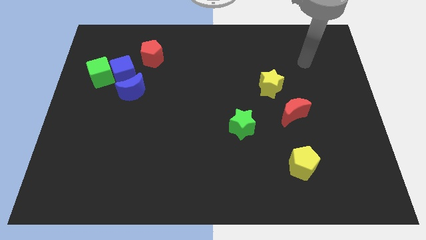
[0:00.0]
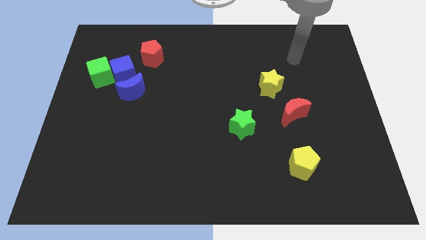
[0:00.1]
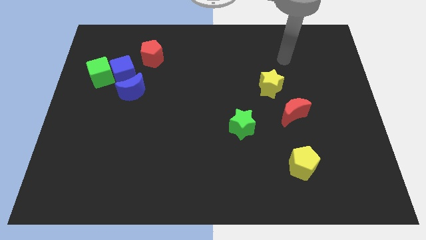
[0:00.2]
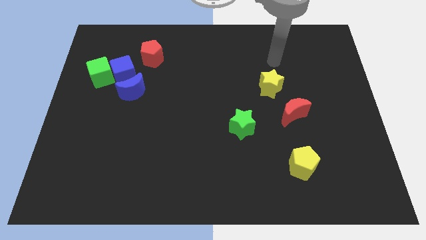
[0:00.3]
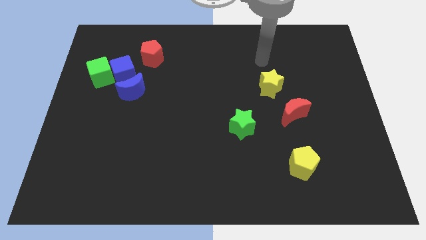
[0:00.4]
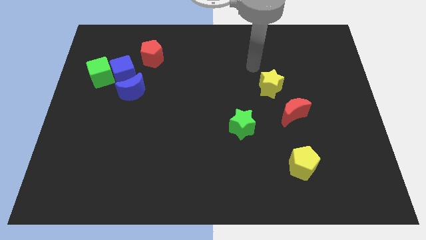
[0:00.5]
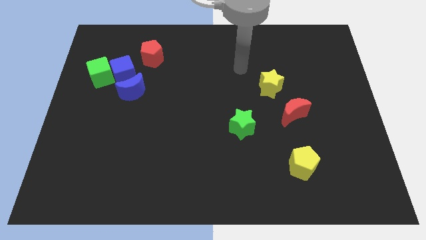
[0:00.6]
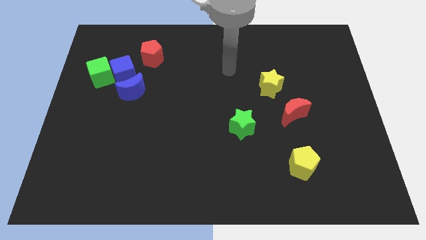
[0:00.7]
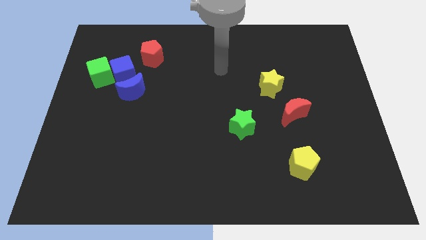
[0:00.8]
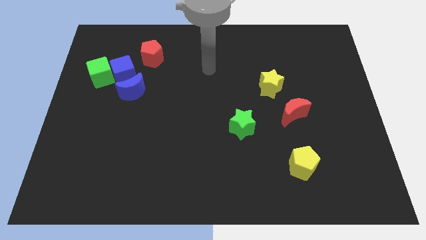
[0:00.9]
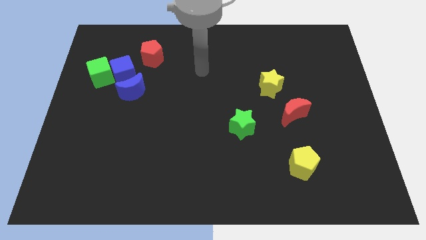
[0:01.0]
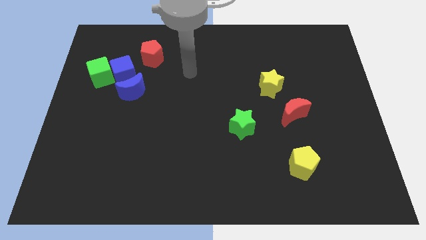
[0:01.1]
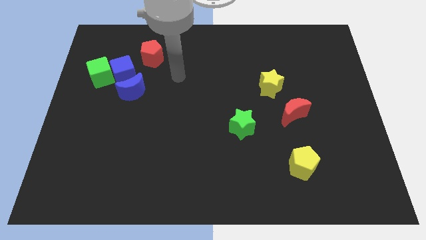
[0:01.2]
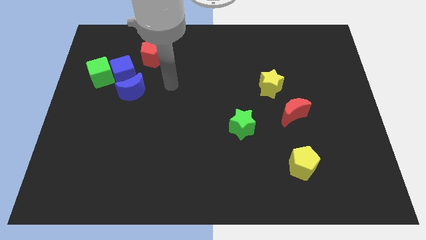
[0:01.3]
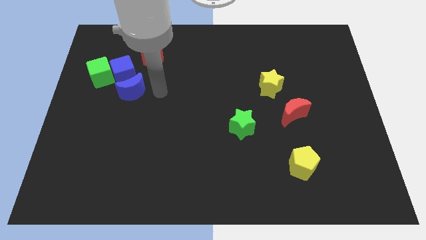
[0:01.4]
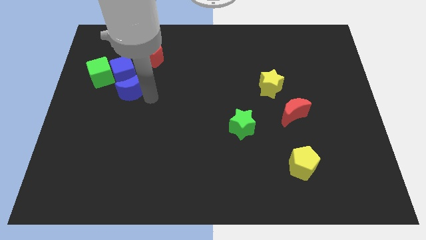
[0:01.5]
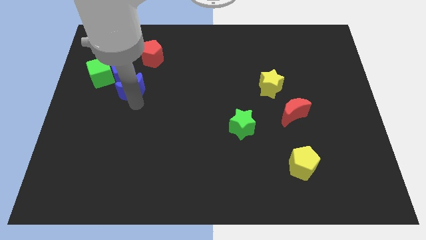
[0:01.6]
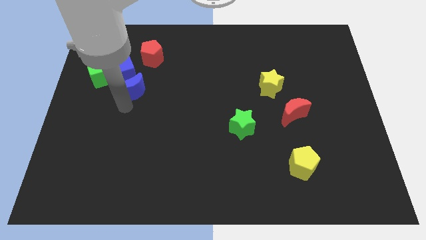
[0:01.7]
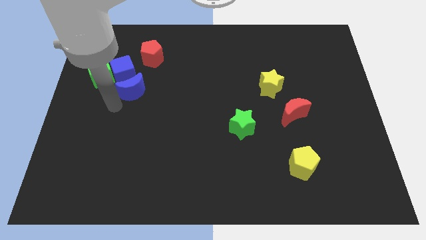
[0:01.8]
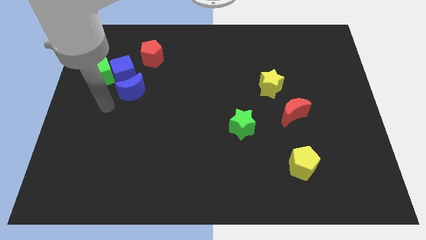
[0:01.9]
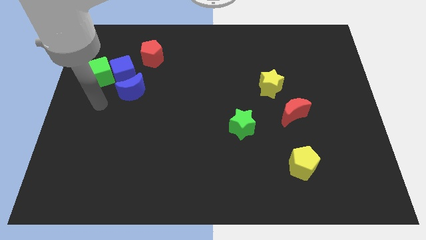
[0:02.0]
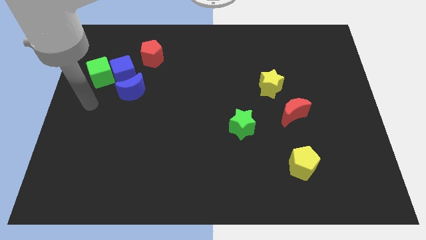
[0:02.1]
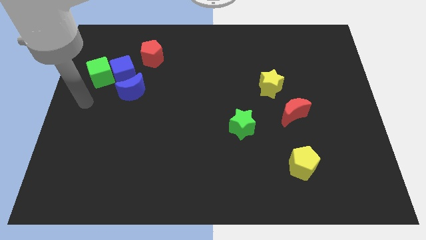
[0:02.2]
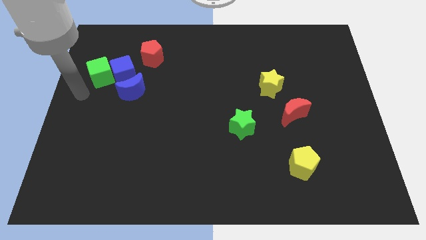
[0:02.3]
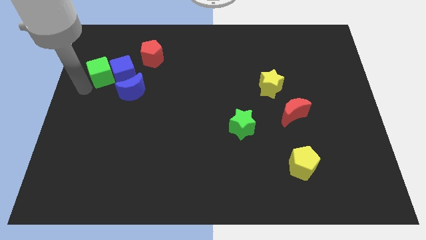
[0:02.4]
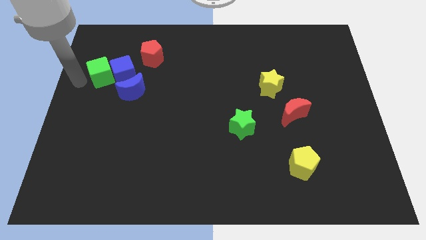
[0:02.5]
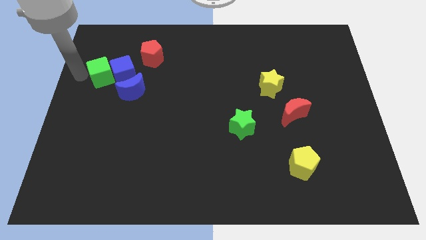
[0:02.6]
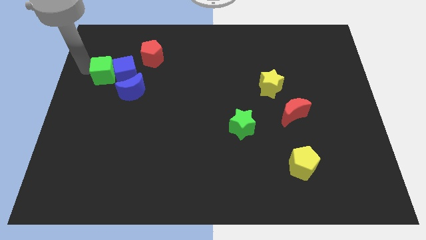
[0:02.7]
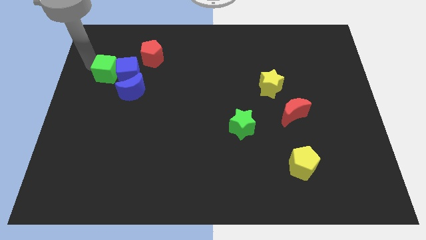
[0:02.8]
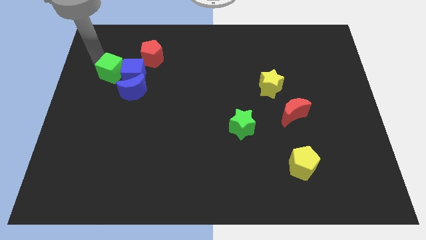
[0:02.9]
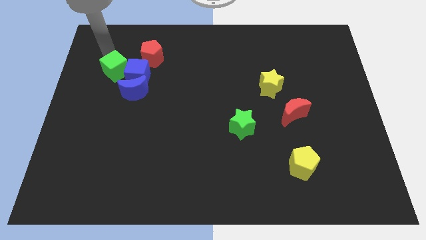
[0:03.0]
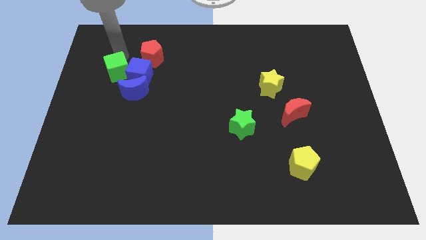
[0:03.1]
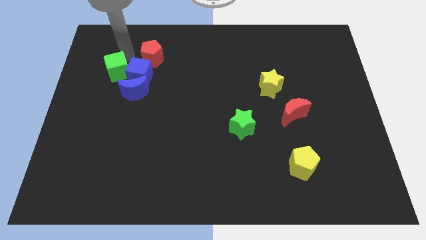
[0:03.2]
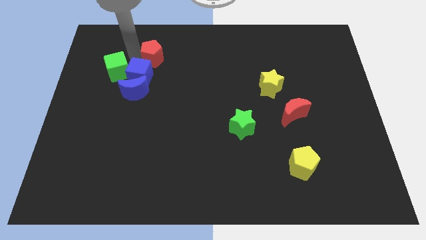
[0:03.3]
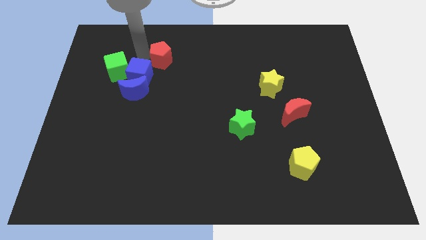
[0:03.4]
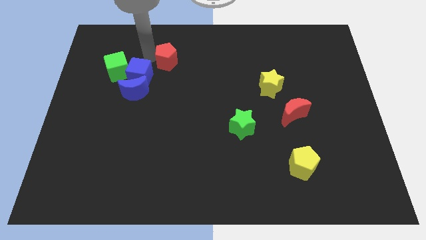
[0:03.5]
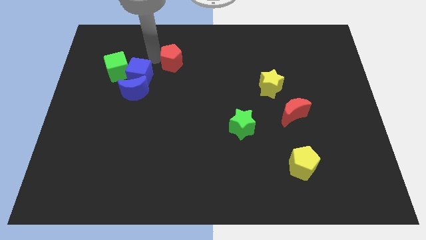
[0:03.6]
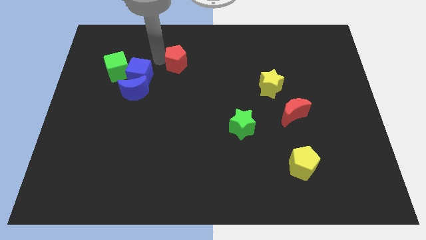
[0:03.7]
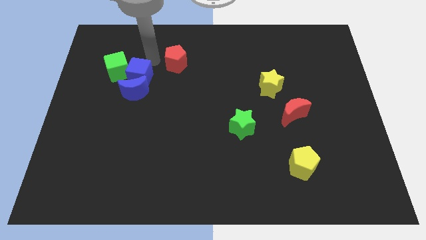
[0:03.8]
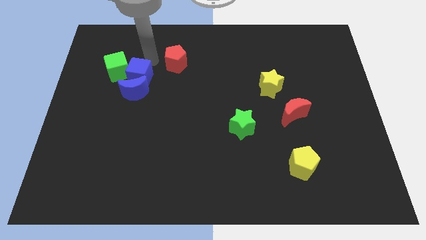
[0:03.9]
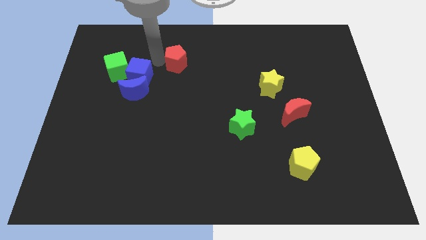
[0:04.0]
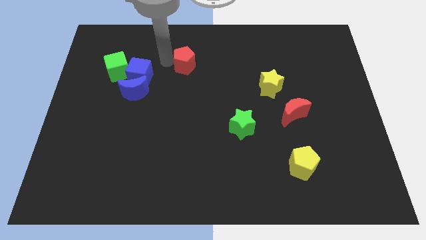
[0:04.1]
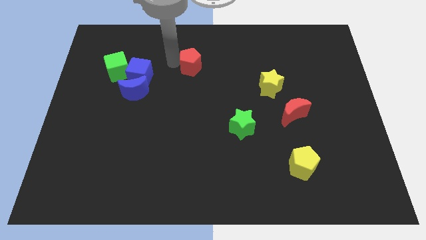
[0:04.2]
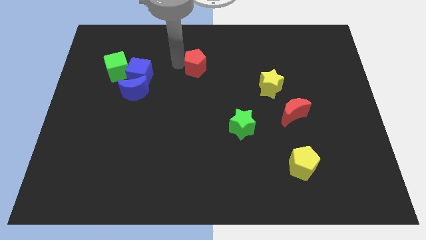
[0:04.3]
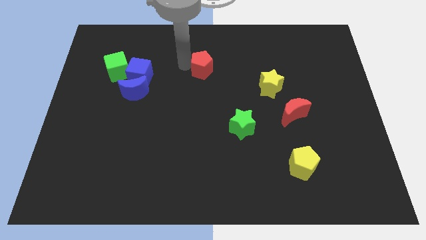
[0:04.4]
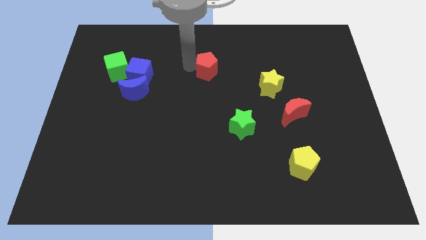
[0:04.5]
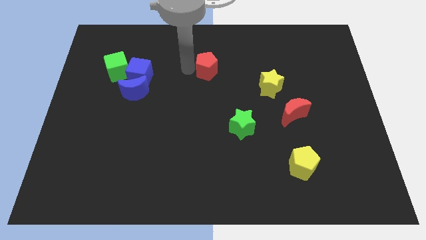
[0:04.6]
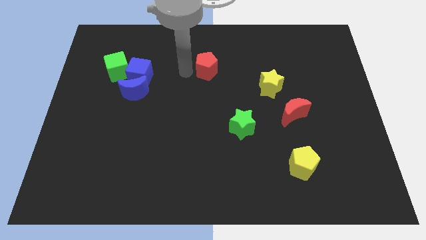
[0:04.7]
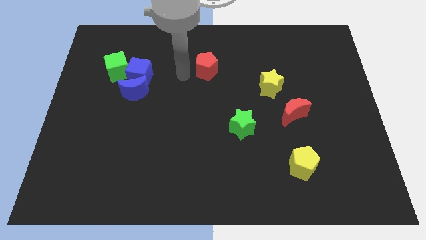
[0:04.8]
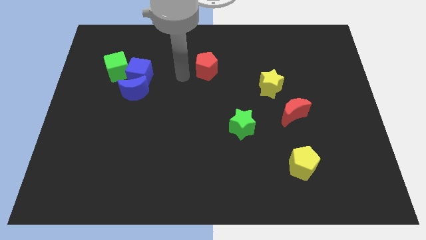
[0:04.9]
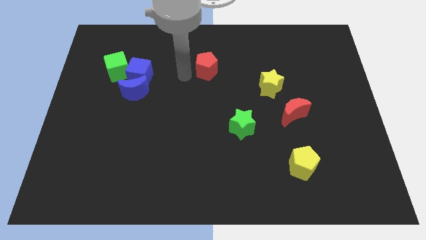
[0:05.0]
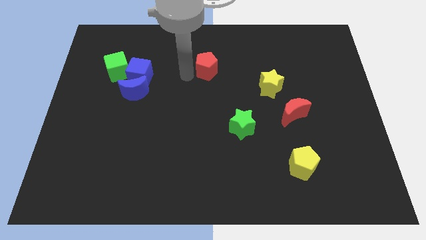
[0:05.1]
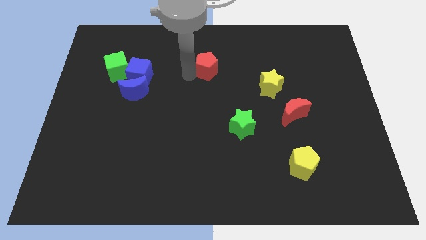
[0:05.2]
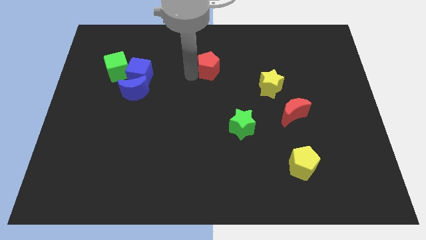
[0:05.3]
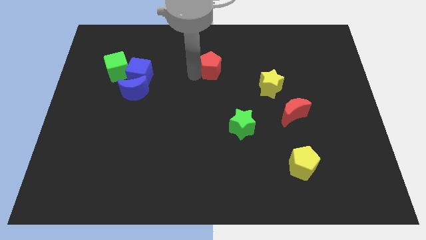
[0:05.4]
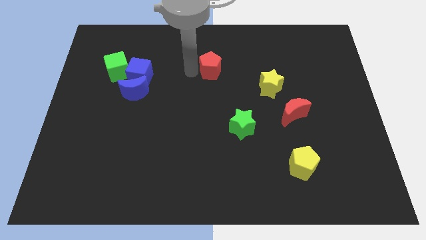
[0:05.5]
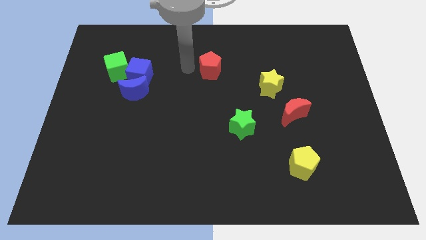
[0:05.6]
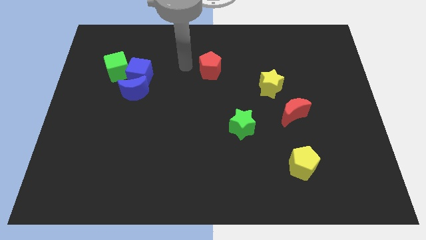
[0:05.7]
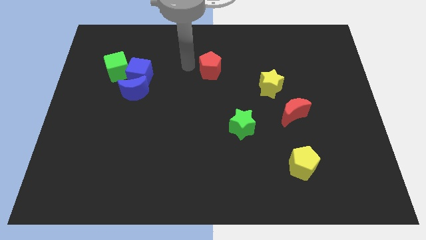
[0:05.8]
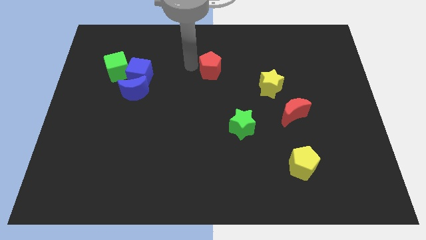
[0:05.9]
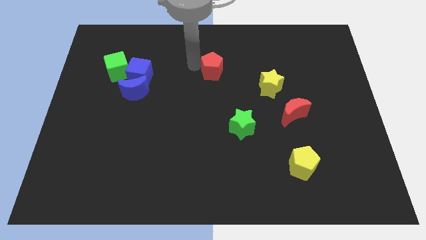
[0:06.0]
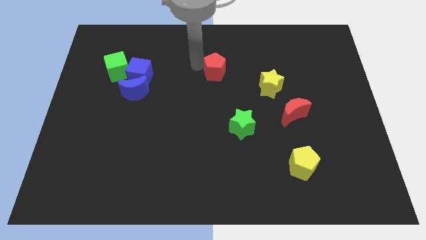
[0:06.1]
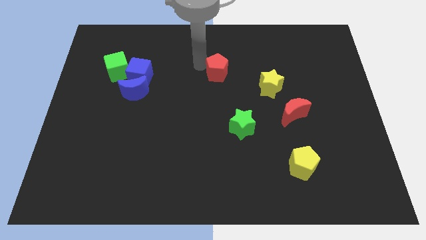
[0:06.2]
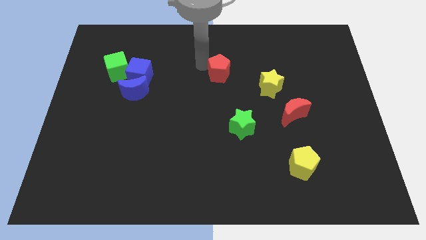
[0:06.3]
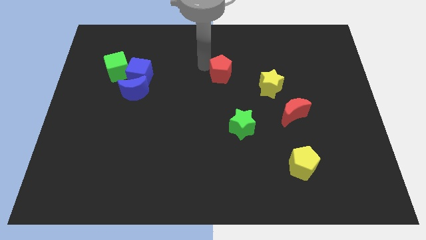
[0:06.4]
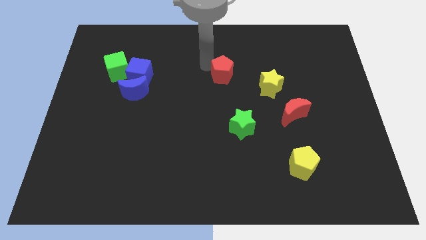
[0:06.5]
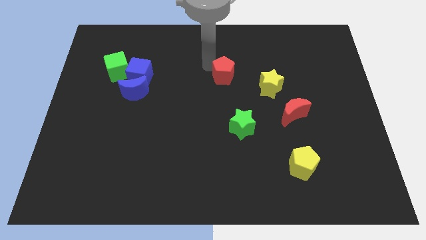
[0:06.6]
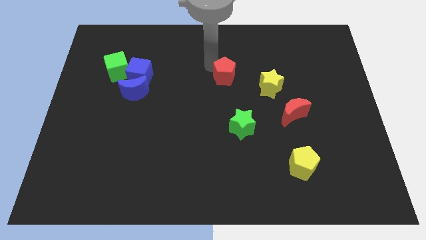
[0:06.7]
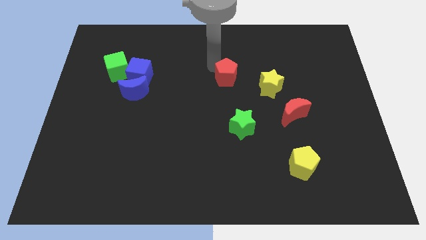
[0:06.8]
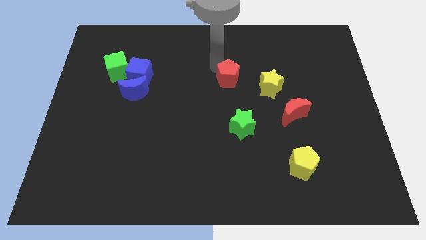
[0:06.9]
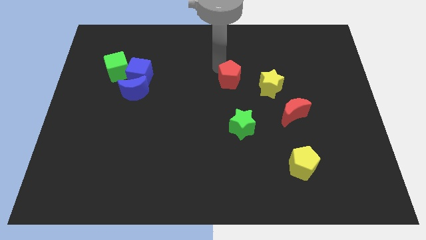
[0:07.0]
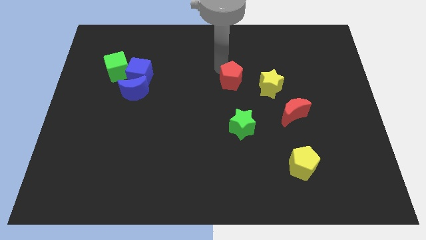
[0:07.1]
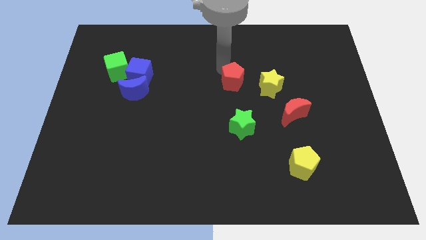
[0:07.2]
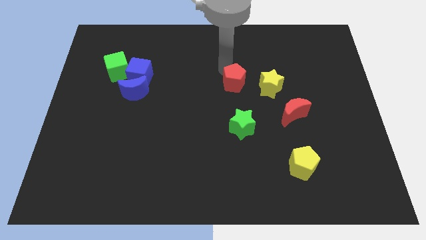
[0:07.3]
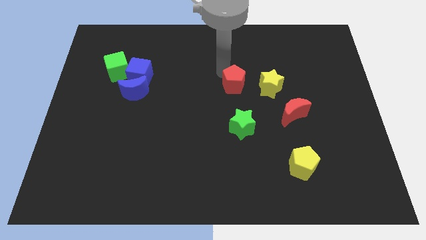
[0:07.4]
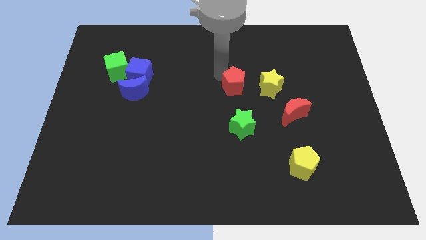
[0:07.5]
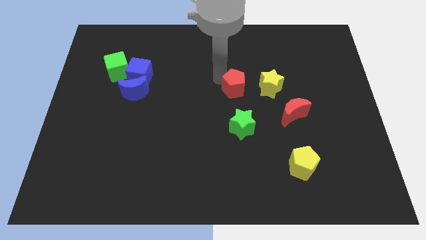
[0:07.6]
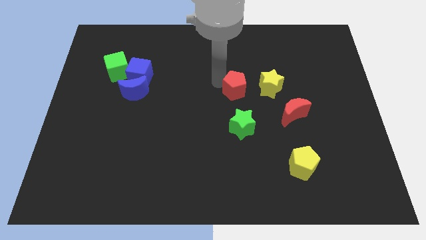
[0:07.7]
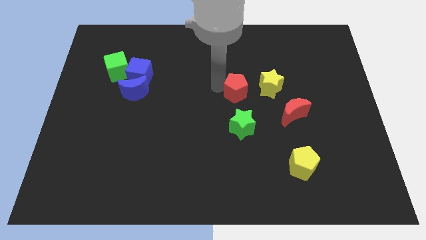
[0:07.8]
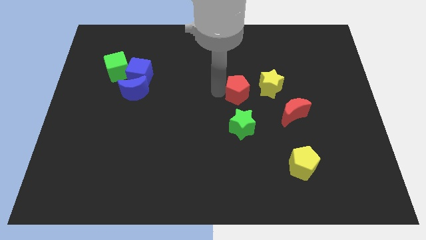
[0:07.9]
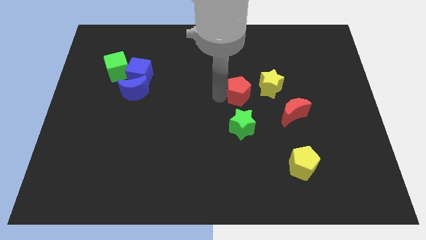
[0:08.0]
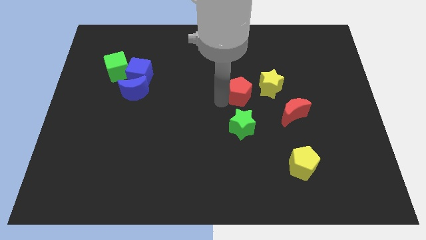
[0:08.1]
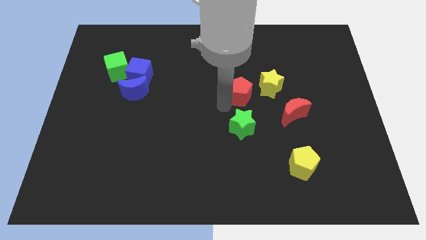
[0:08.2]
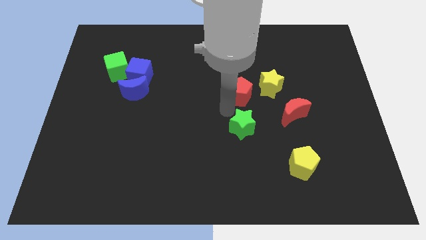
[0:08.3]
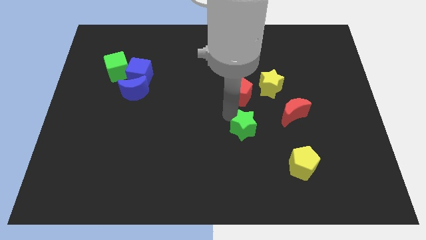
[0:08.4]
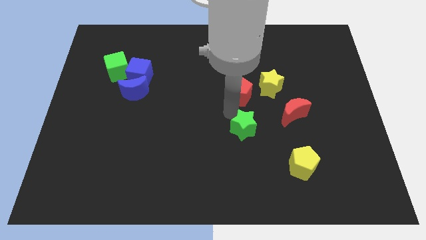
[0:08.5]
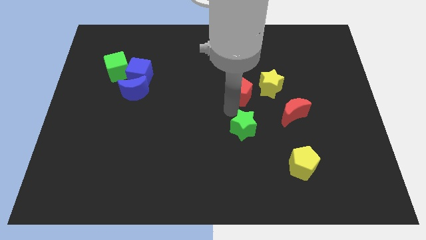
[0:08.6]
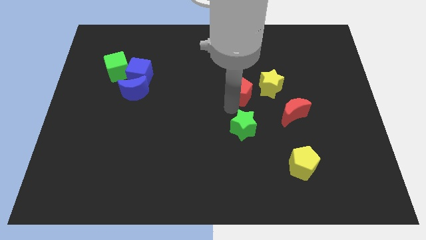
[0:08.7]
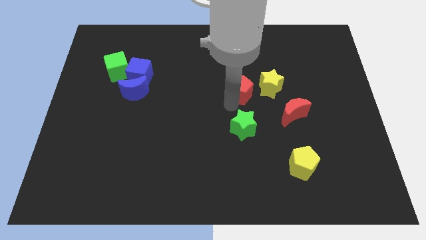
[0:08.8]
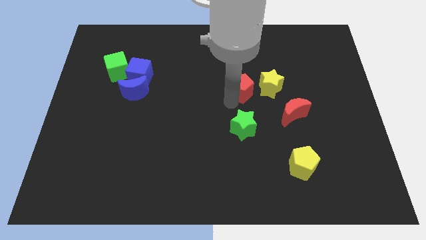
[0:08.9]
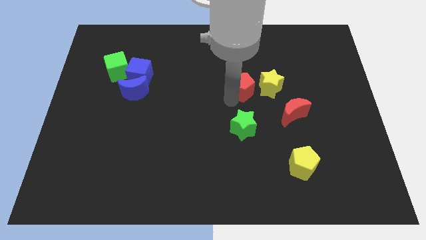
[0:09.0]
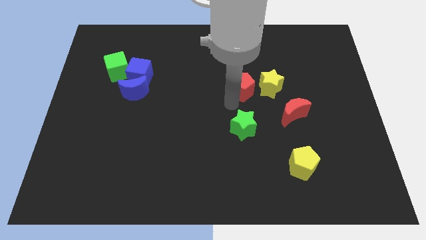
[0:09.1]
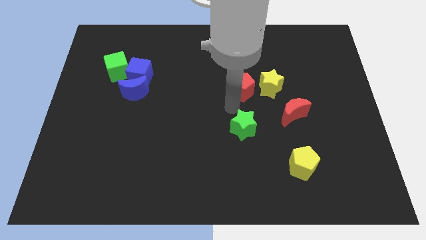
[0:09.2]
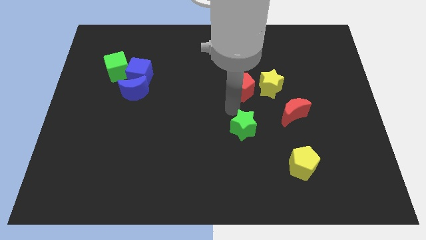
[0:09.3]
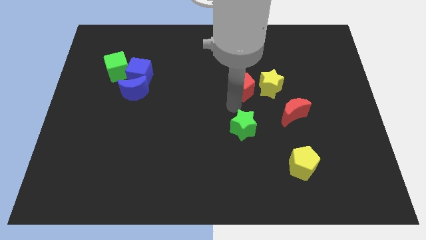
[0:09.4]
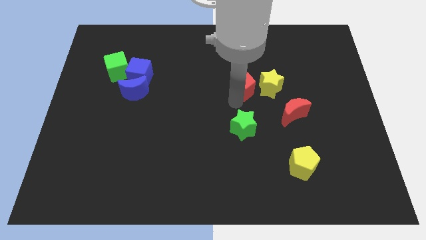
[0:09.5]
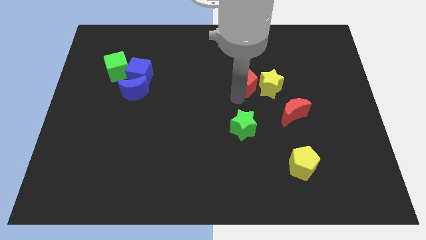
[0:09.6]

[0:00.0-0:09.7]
put the red pentagon close to the yellow star
